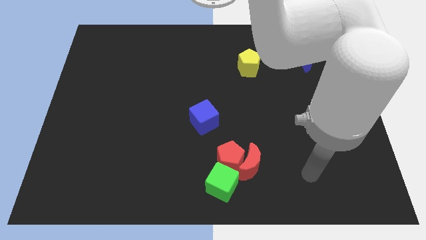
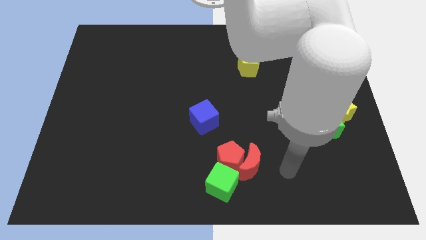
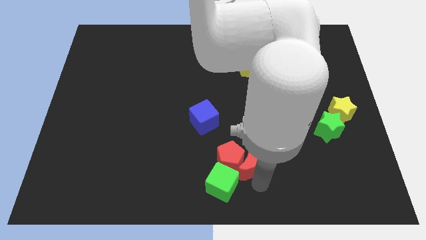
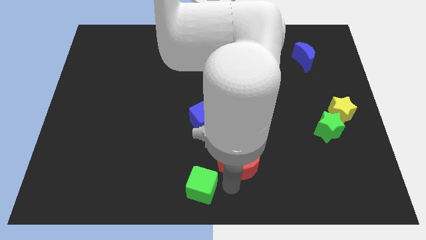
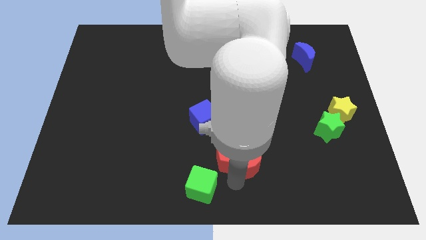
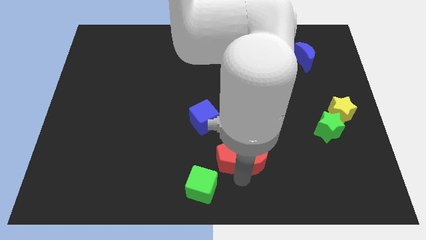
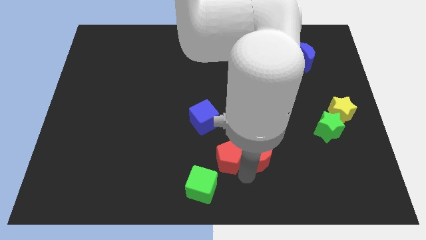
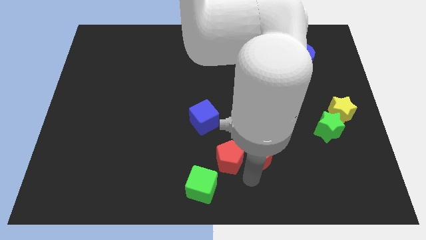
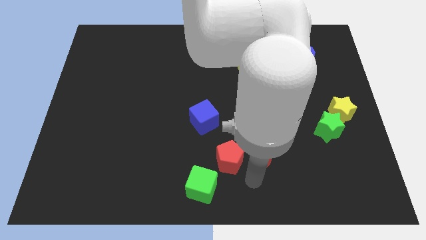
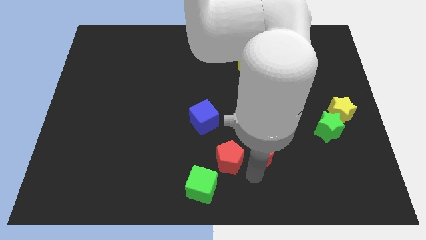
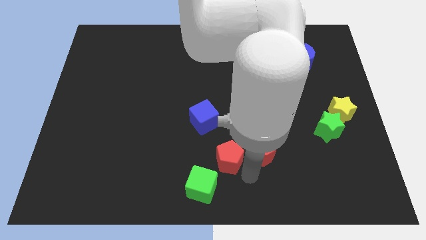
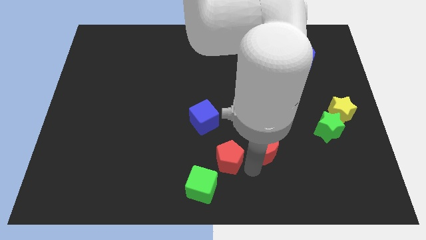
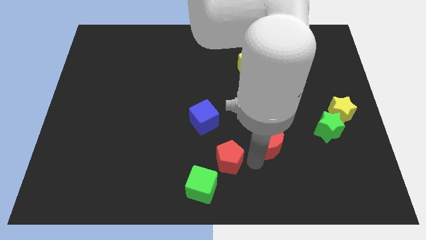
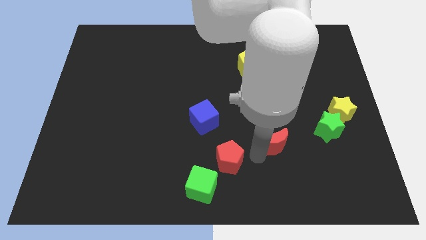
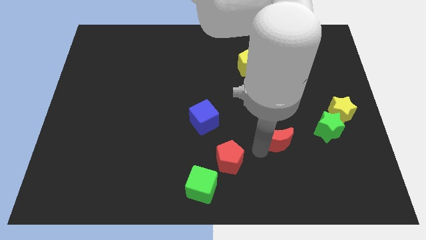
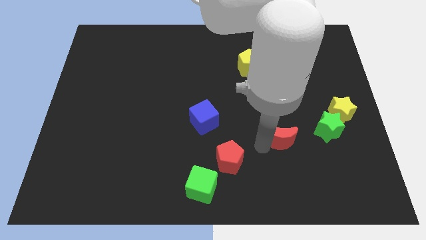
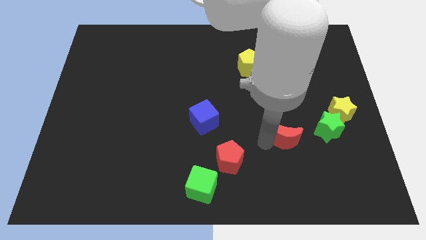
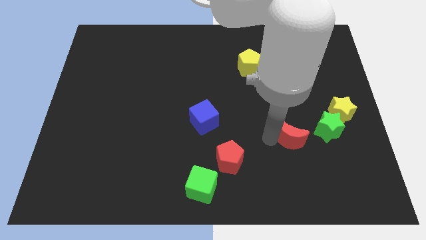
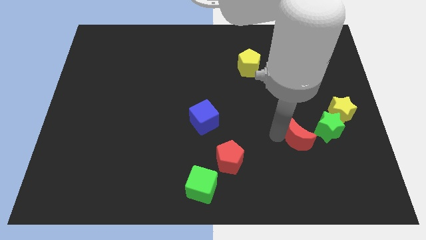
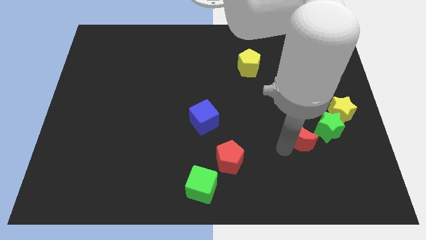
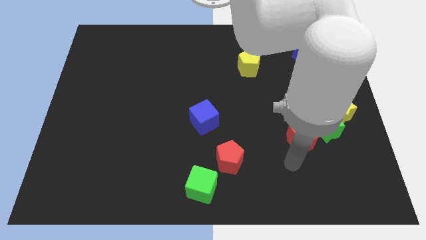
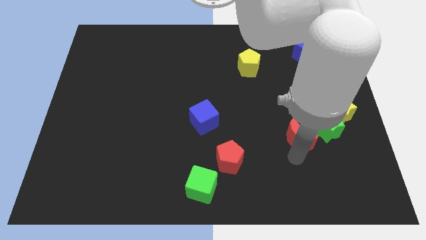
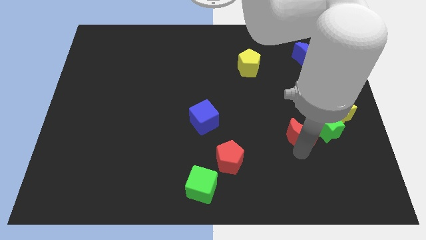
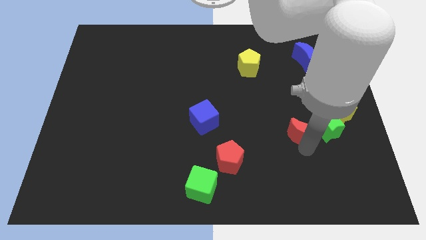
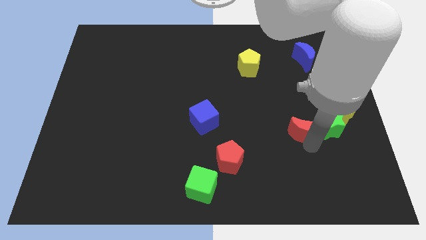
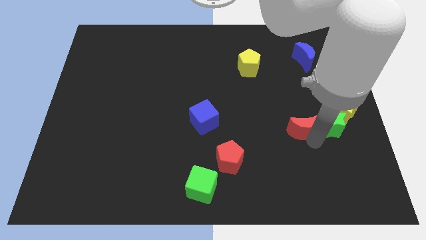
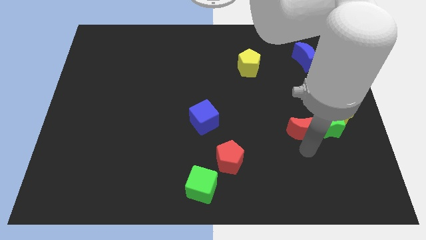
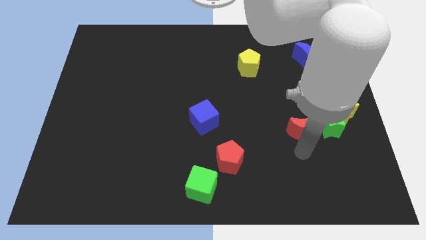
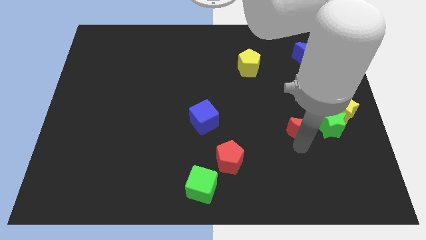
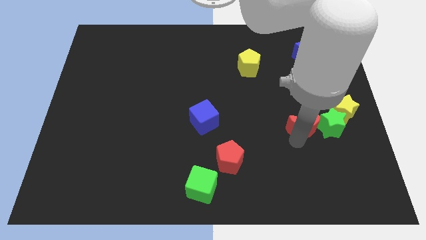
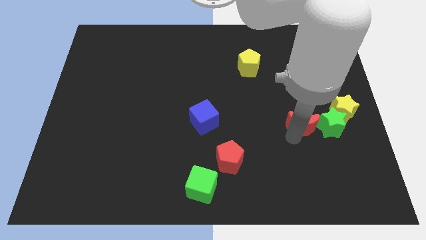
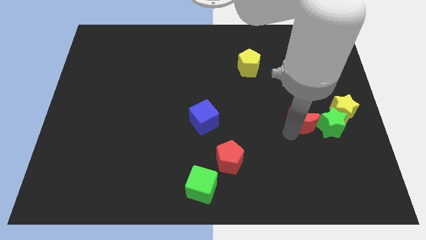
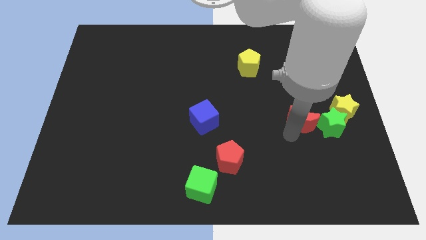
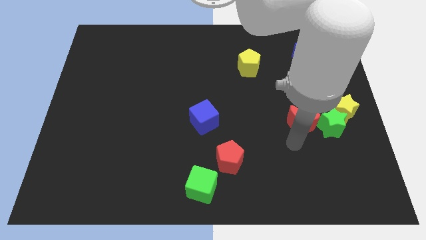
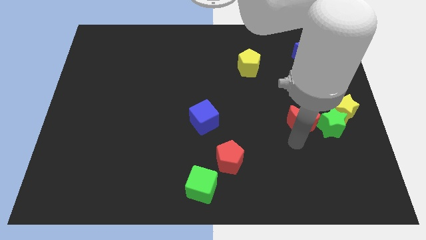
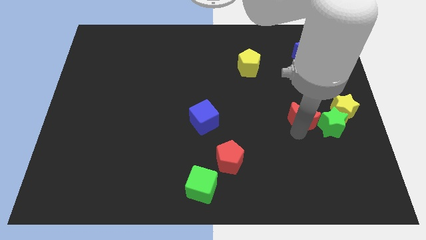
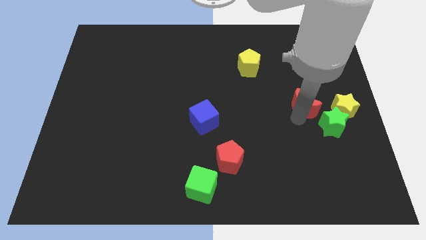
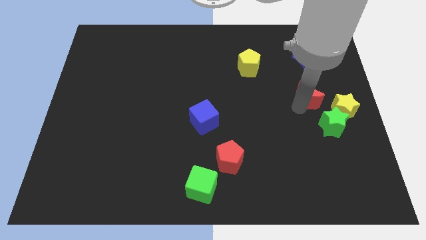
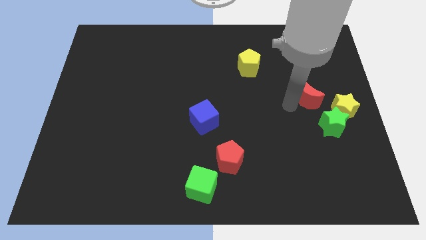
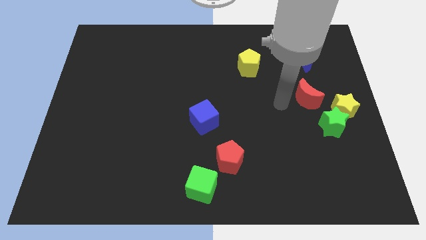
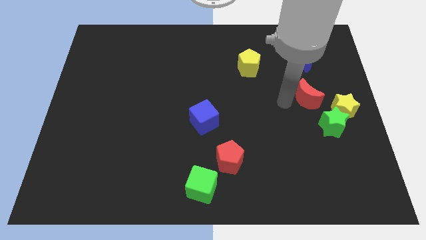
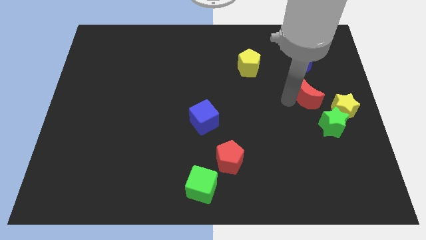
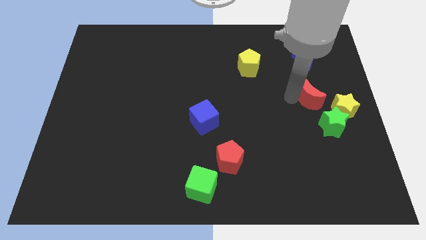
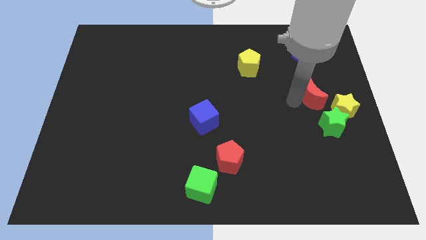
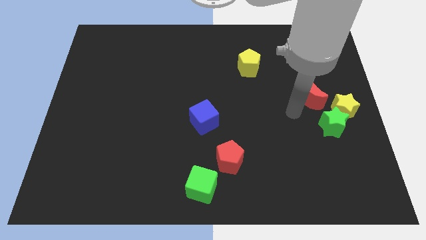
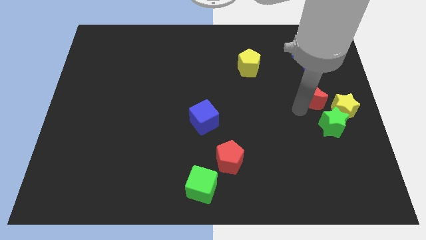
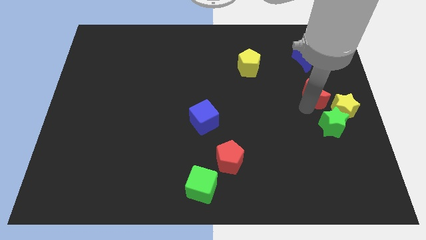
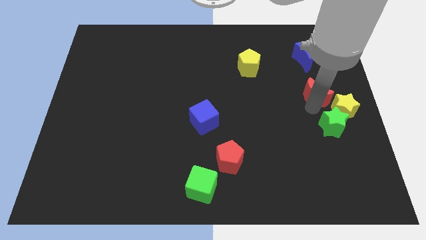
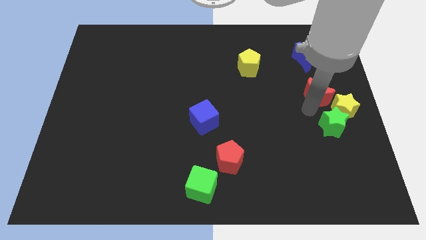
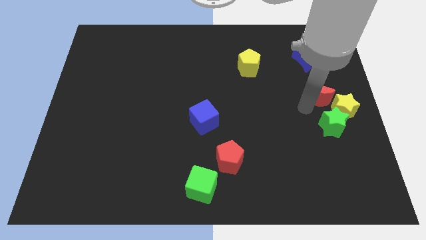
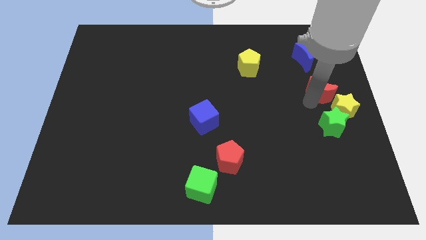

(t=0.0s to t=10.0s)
put the red moon above the yellow star

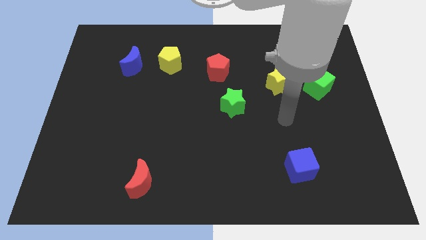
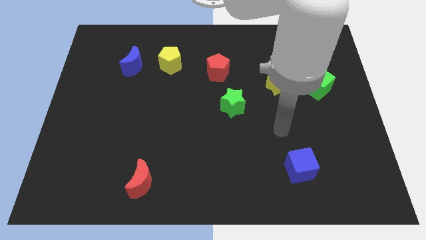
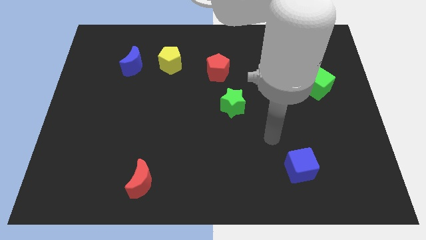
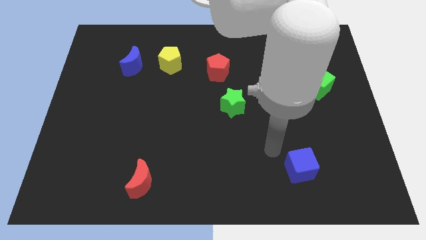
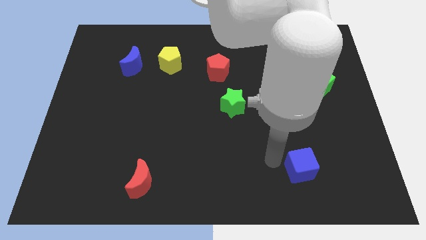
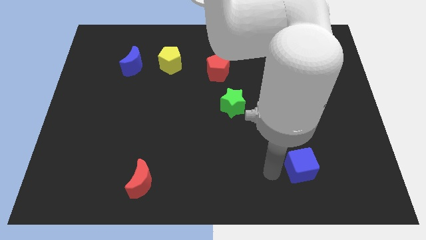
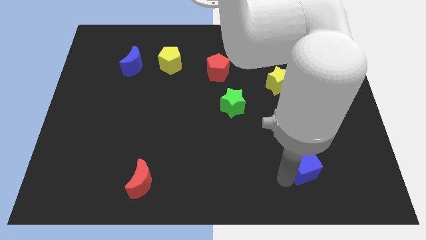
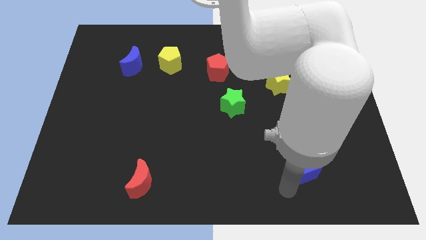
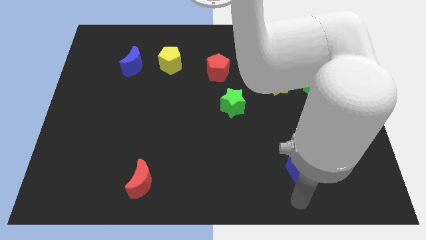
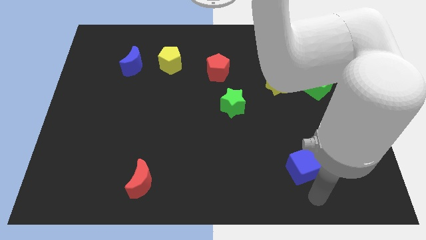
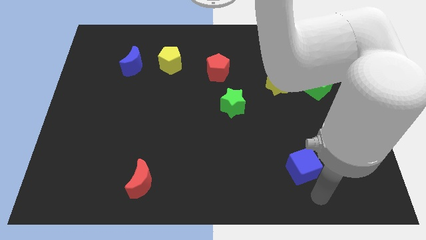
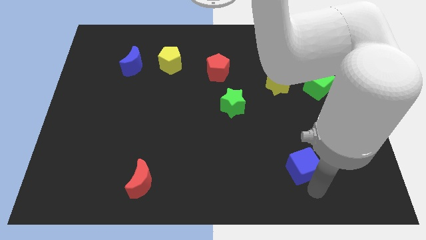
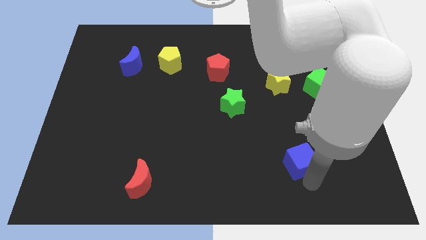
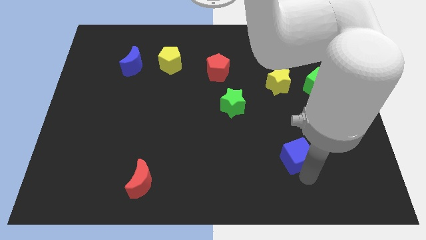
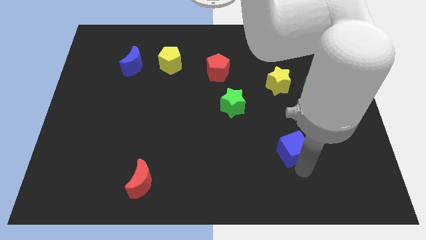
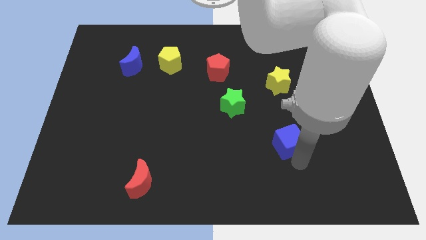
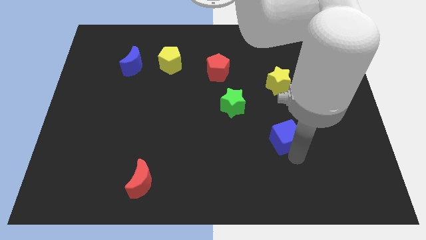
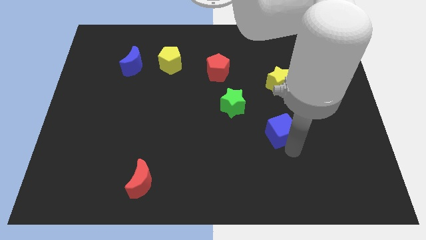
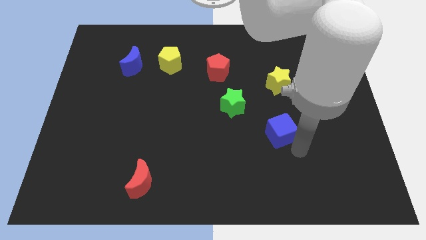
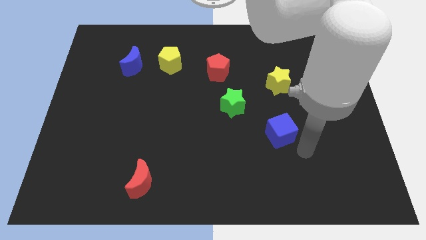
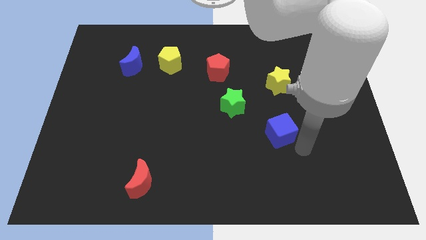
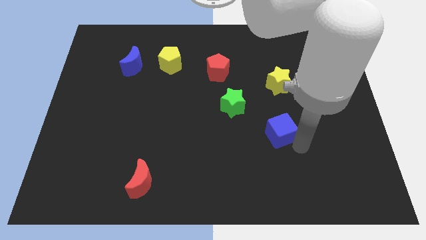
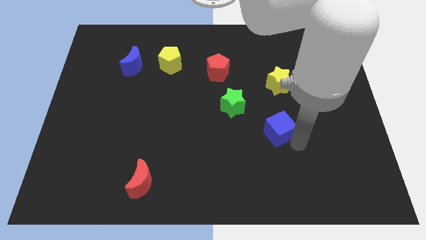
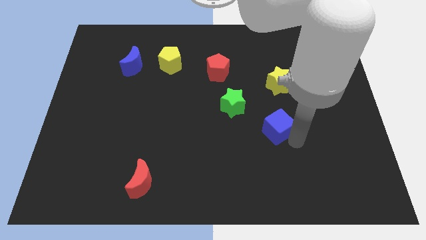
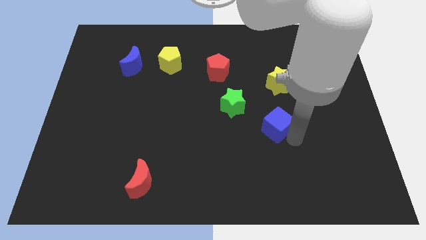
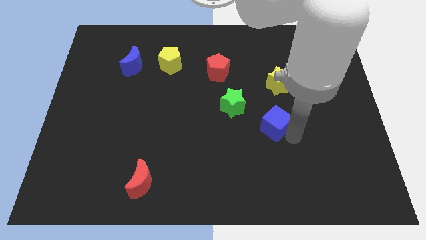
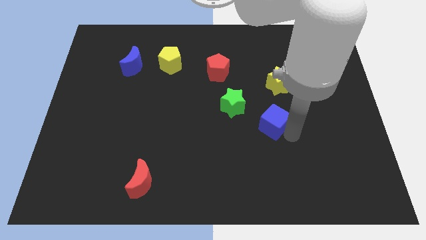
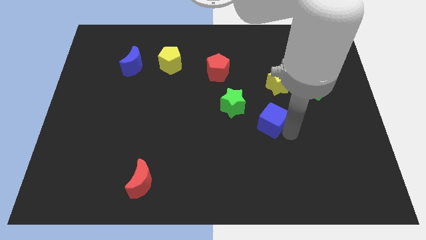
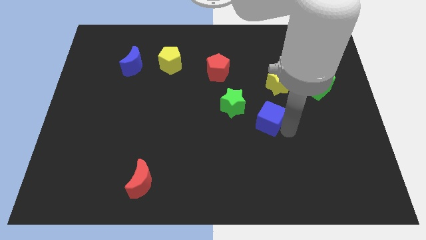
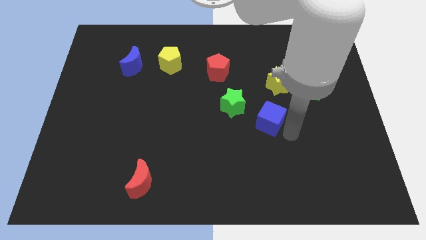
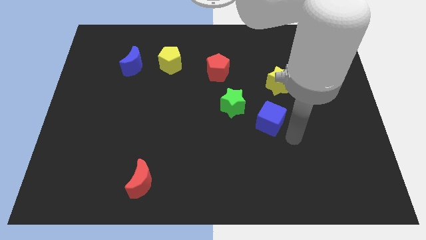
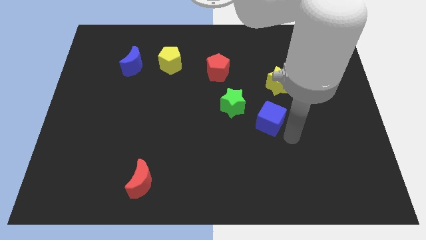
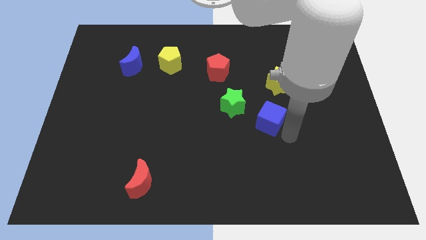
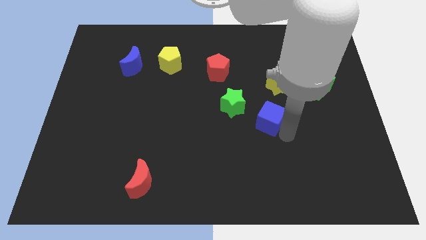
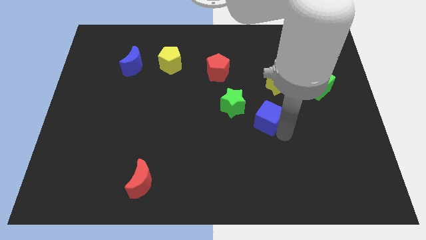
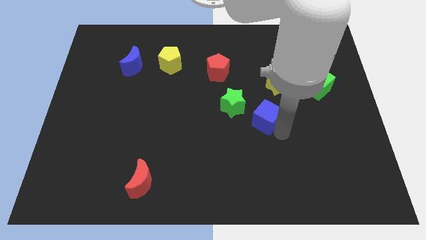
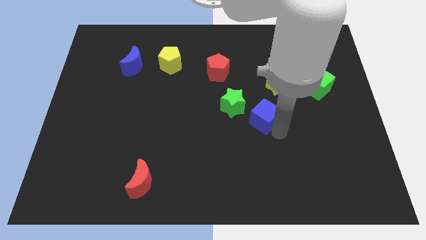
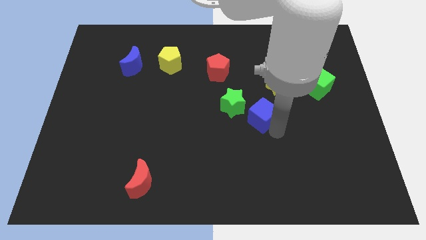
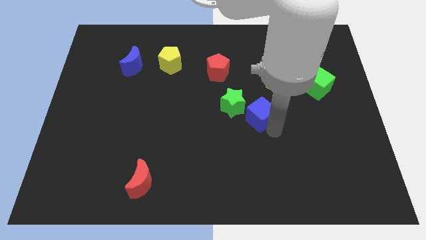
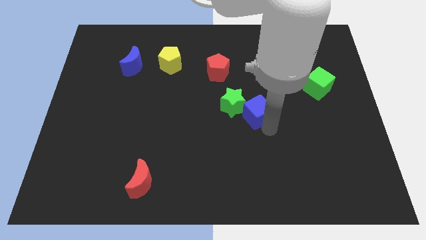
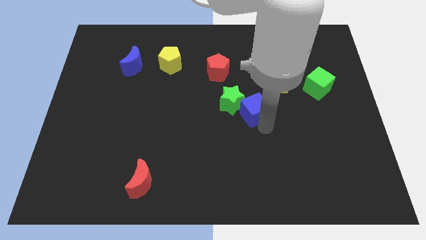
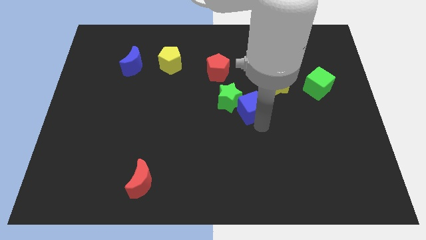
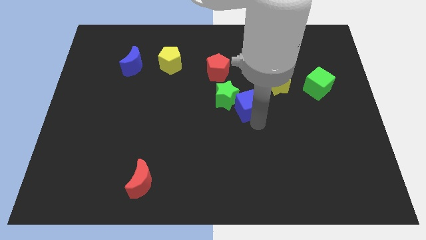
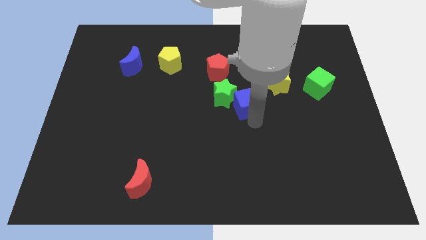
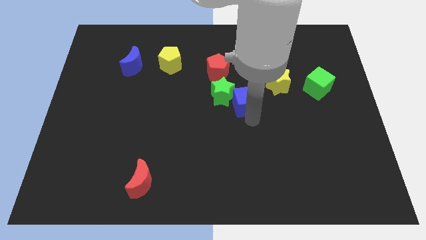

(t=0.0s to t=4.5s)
slide the blue cube to the bottom right side of the red pentagon
